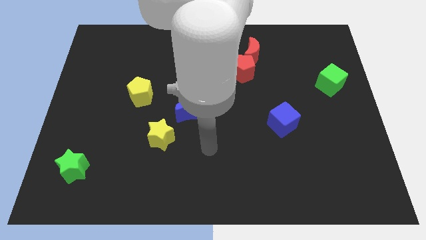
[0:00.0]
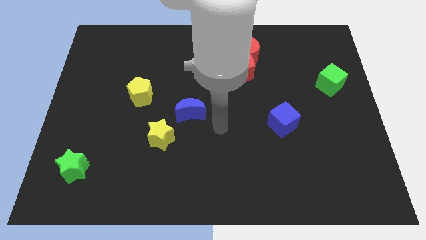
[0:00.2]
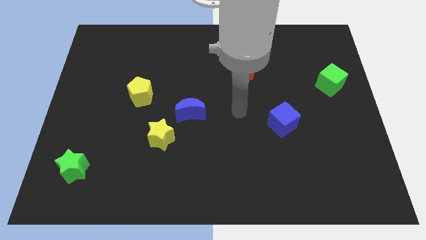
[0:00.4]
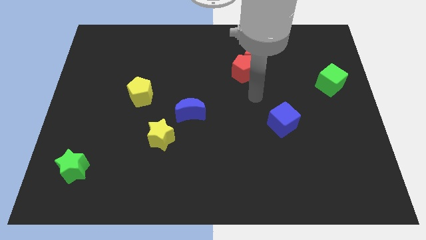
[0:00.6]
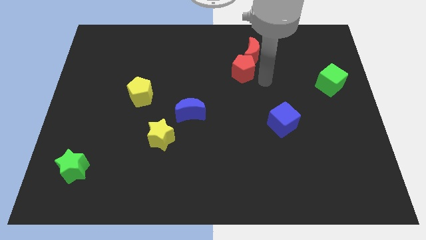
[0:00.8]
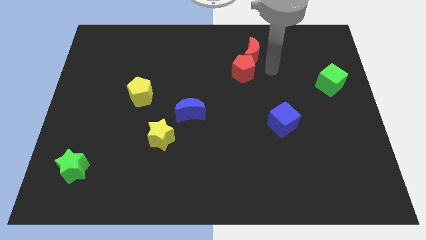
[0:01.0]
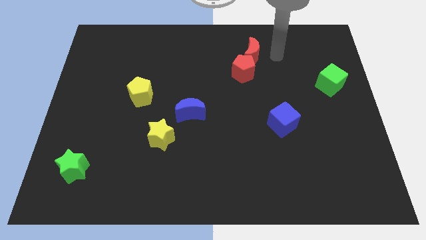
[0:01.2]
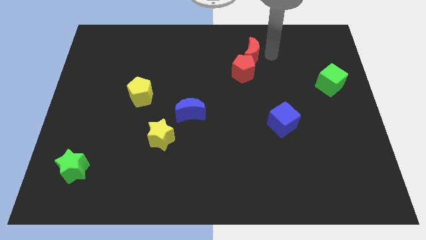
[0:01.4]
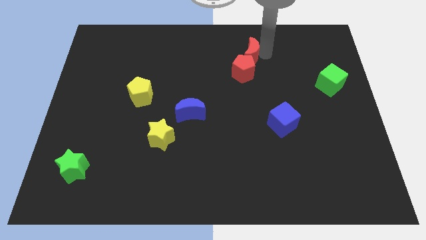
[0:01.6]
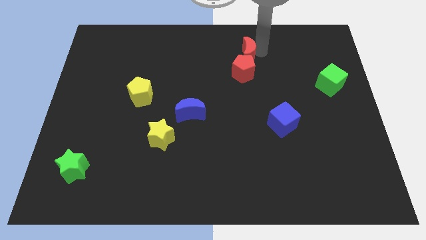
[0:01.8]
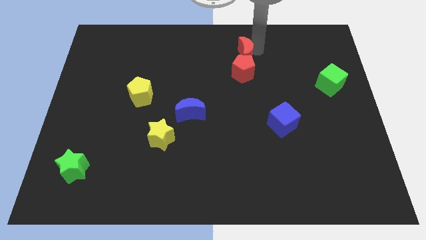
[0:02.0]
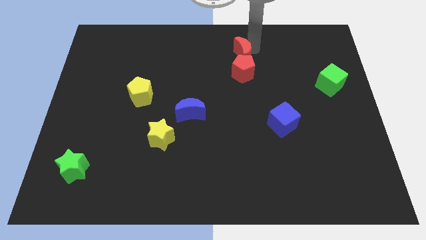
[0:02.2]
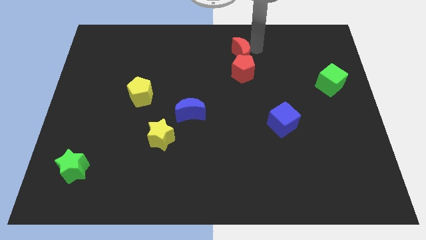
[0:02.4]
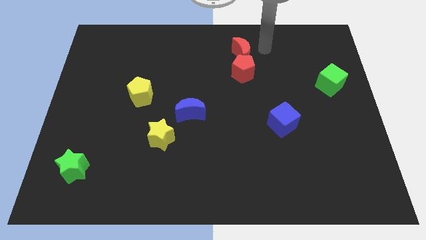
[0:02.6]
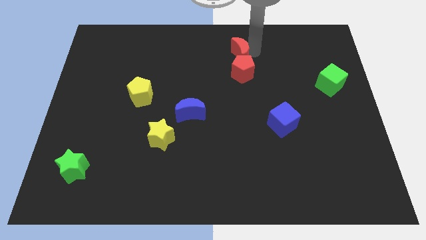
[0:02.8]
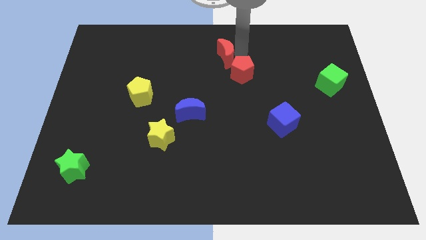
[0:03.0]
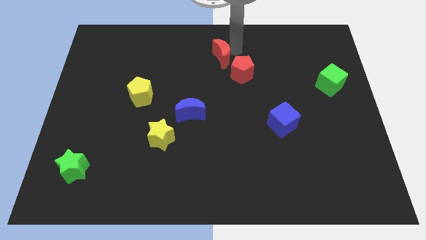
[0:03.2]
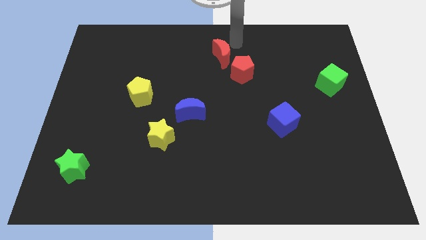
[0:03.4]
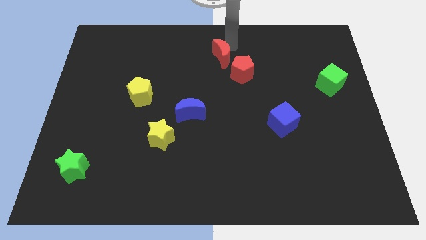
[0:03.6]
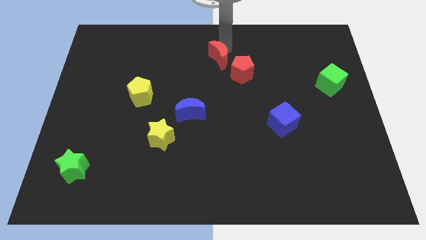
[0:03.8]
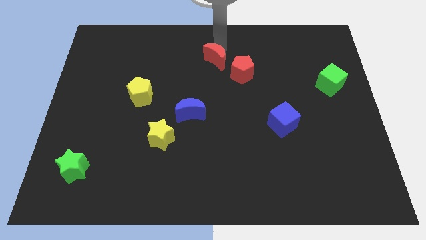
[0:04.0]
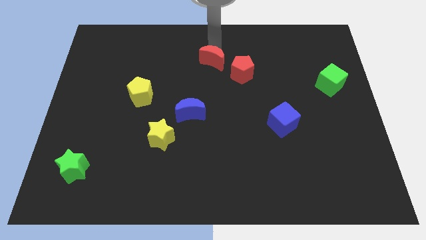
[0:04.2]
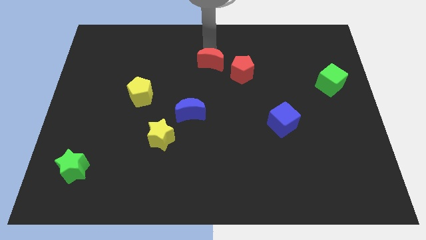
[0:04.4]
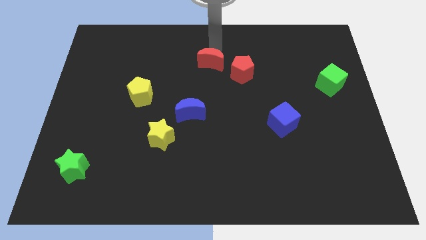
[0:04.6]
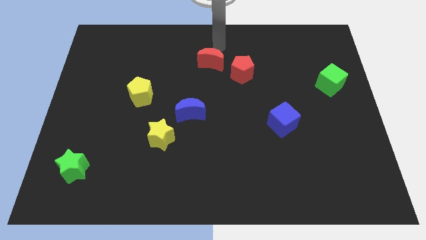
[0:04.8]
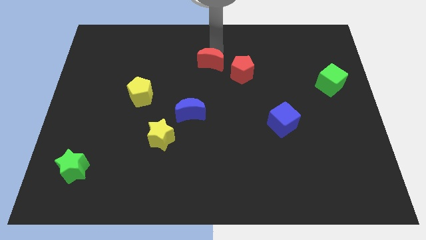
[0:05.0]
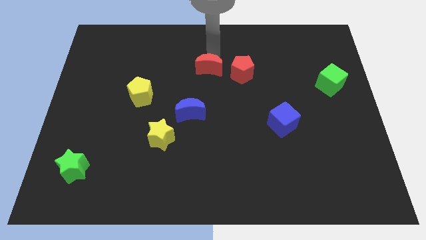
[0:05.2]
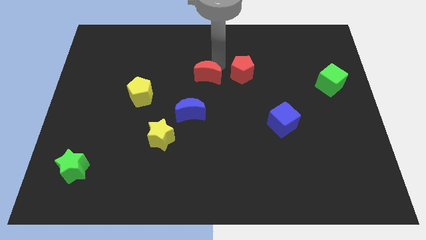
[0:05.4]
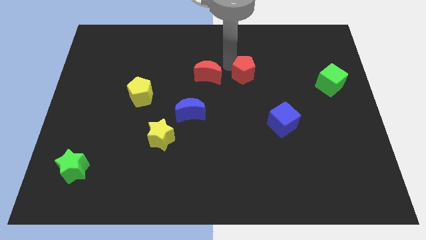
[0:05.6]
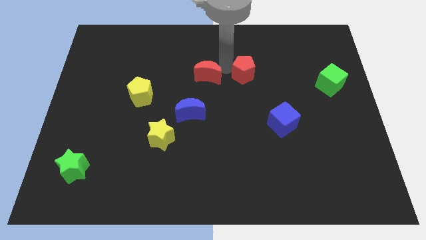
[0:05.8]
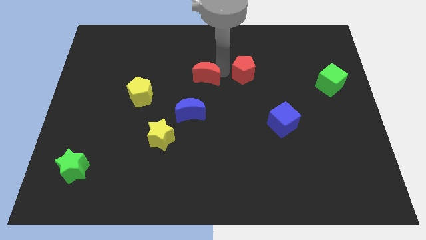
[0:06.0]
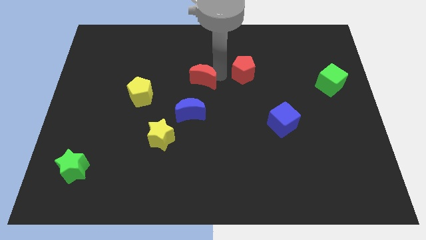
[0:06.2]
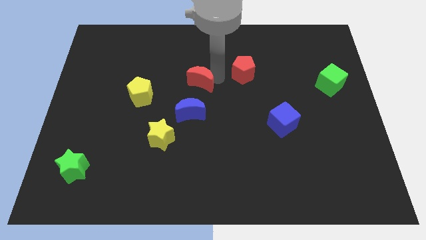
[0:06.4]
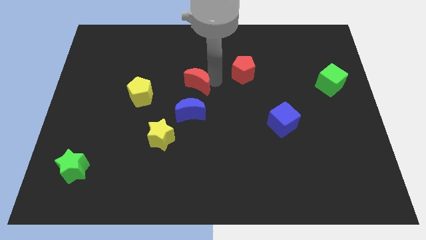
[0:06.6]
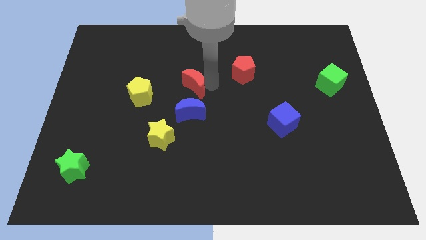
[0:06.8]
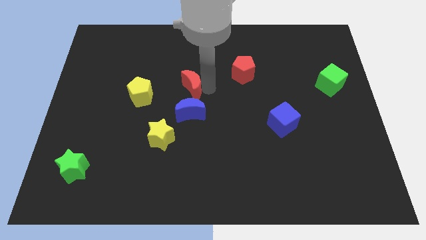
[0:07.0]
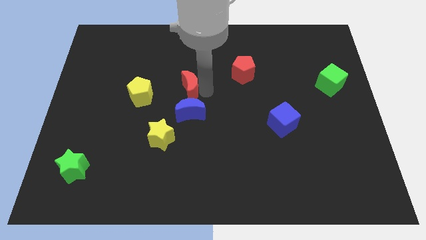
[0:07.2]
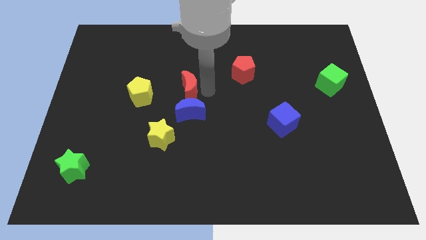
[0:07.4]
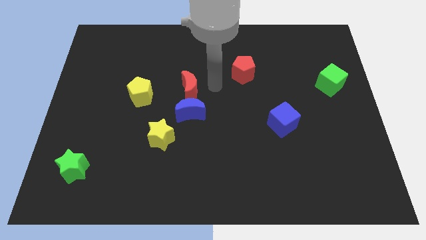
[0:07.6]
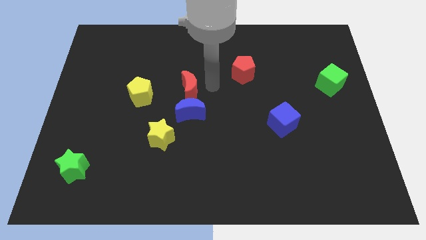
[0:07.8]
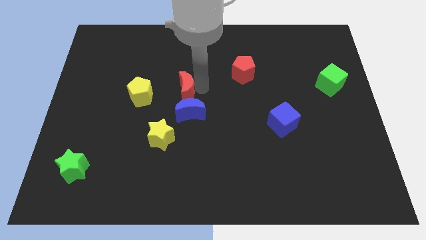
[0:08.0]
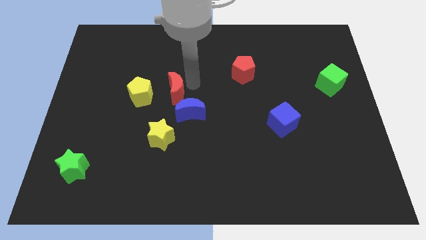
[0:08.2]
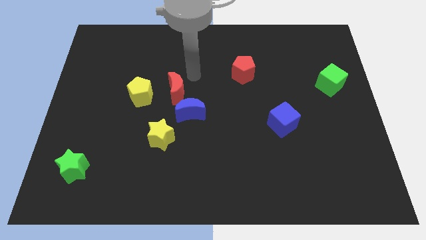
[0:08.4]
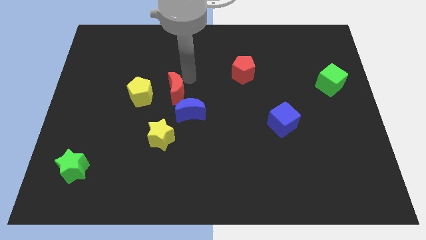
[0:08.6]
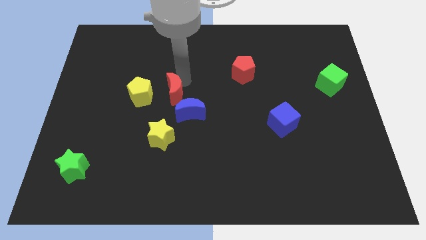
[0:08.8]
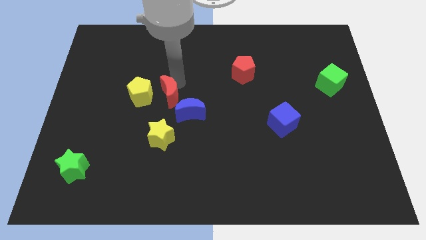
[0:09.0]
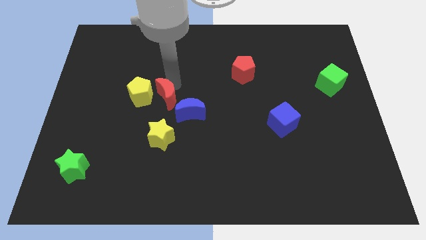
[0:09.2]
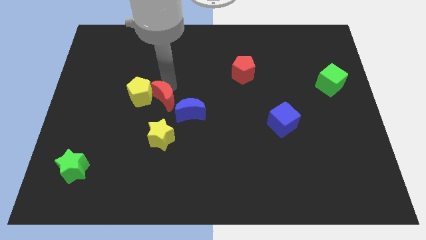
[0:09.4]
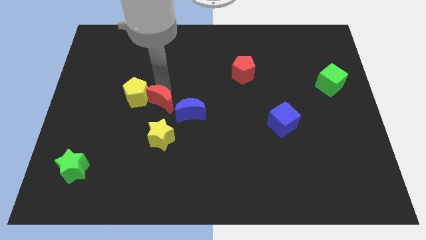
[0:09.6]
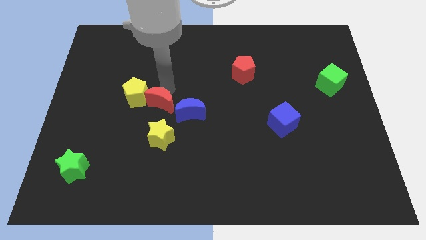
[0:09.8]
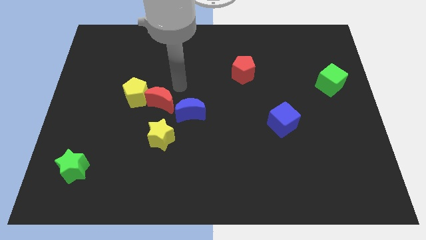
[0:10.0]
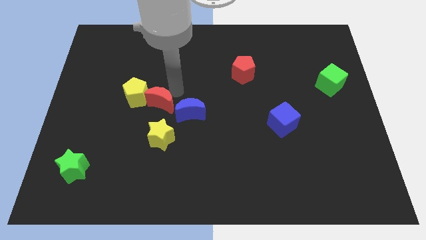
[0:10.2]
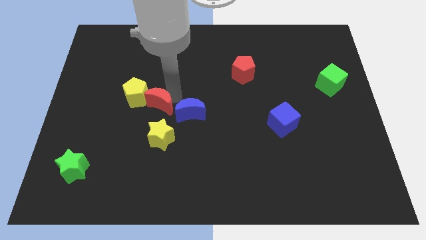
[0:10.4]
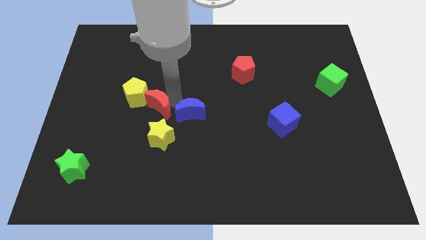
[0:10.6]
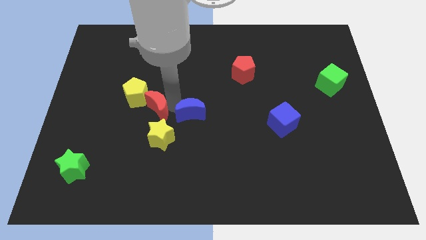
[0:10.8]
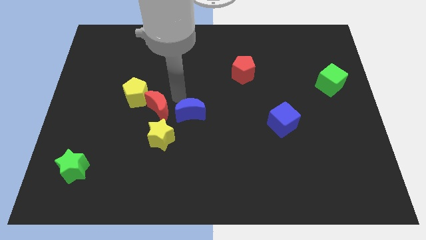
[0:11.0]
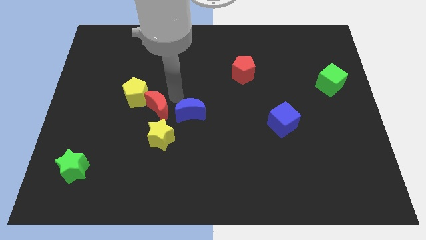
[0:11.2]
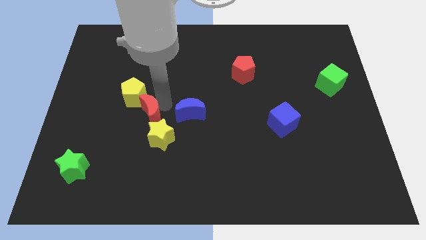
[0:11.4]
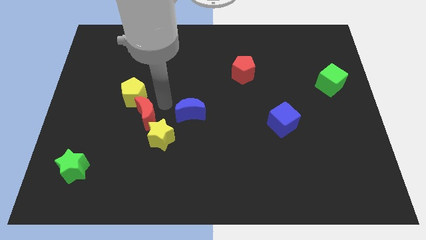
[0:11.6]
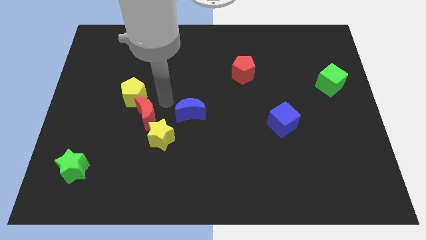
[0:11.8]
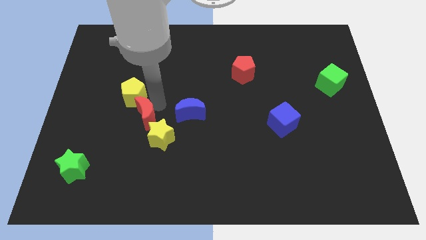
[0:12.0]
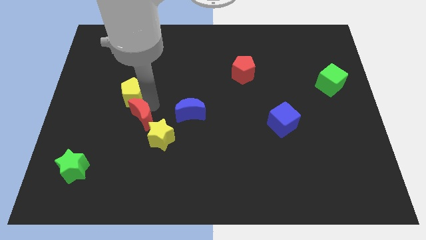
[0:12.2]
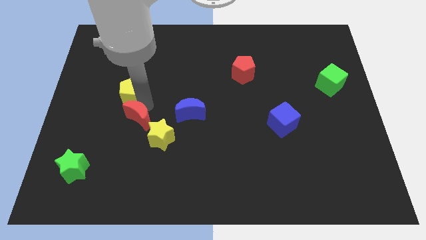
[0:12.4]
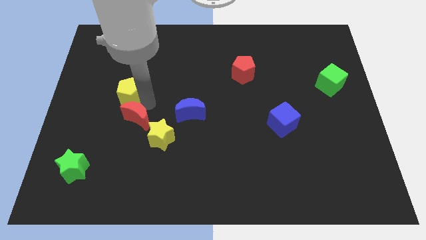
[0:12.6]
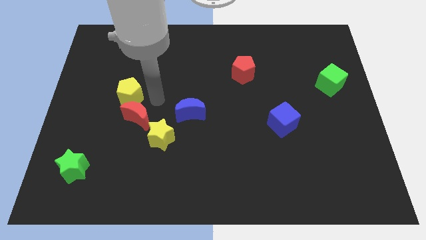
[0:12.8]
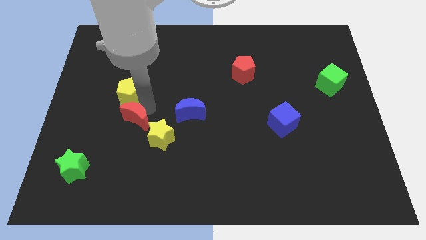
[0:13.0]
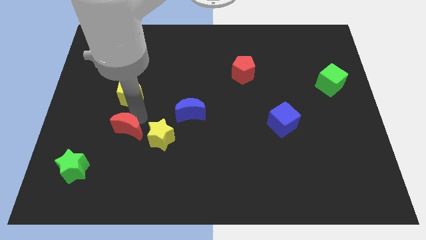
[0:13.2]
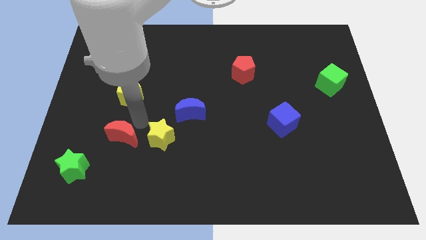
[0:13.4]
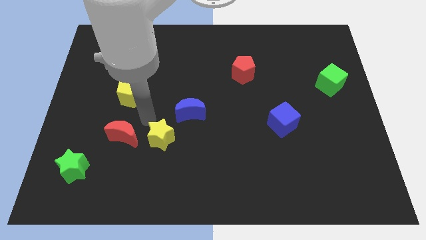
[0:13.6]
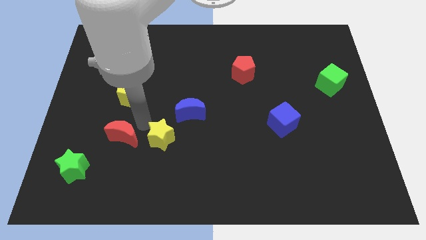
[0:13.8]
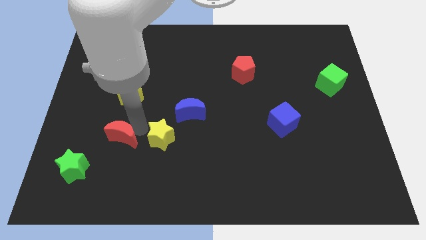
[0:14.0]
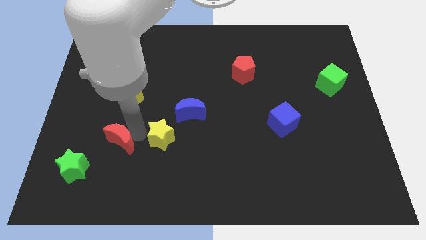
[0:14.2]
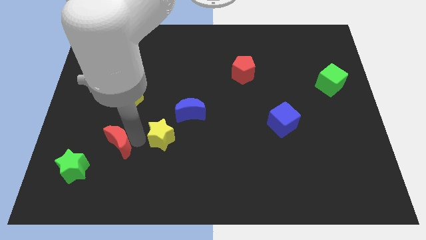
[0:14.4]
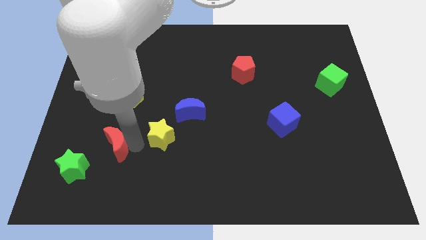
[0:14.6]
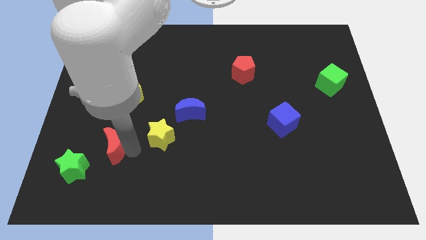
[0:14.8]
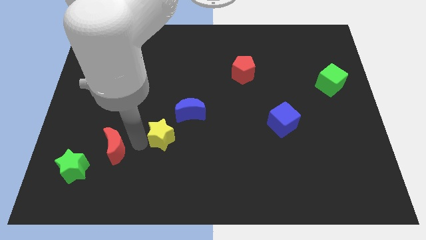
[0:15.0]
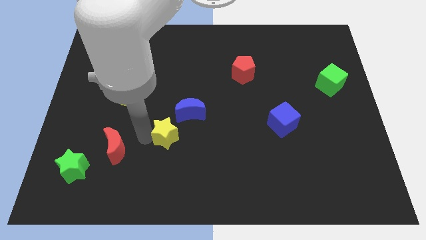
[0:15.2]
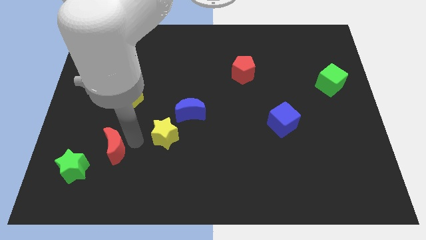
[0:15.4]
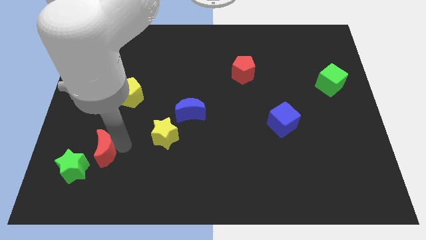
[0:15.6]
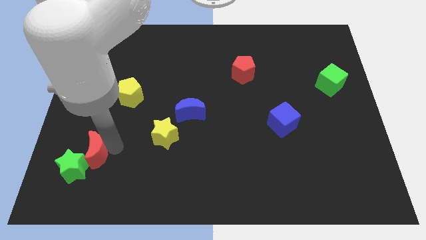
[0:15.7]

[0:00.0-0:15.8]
move the red moon next to the green star
